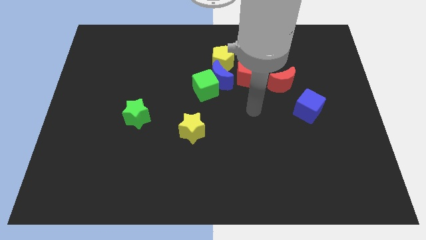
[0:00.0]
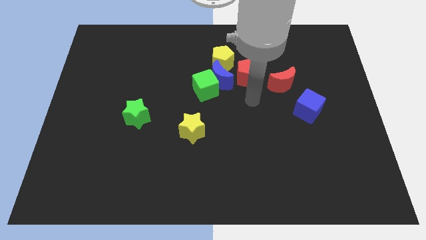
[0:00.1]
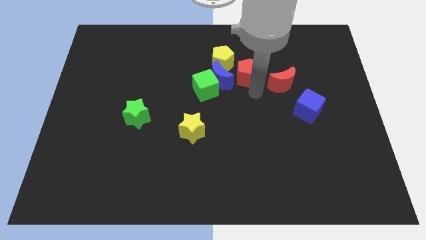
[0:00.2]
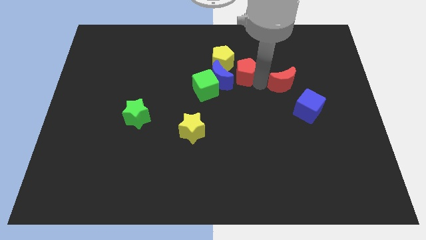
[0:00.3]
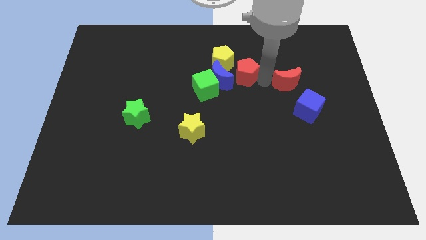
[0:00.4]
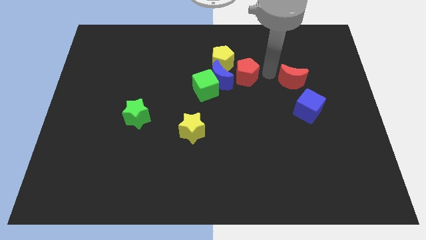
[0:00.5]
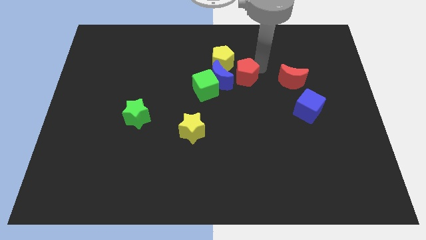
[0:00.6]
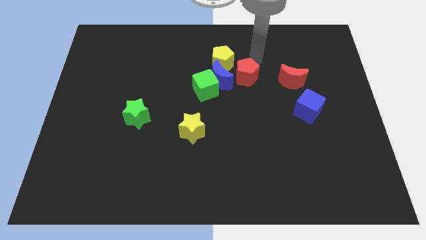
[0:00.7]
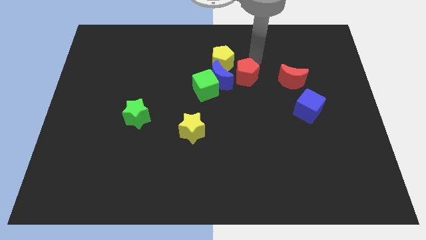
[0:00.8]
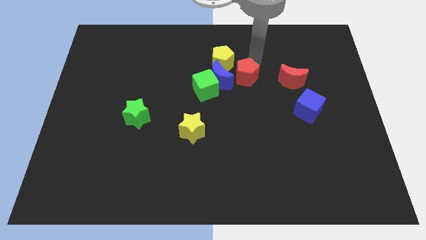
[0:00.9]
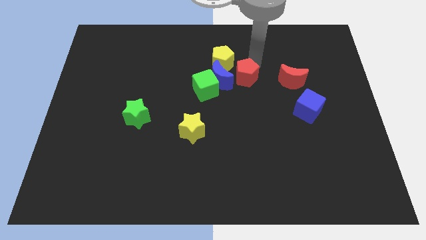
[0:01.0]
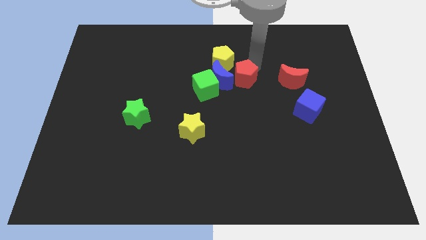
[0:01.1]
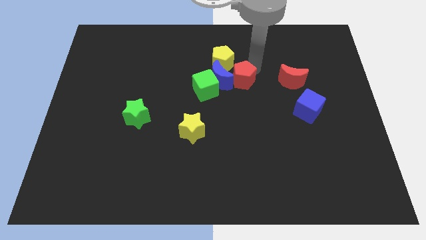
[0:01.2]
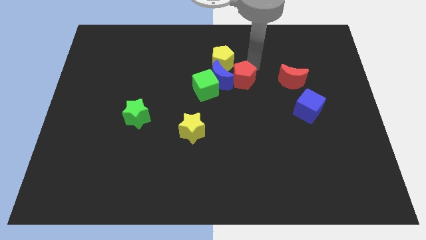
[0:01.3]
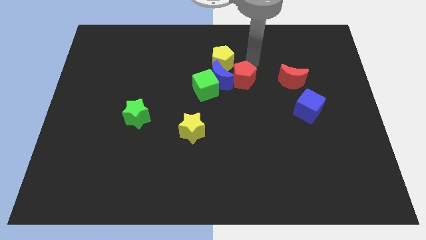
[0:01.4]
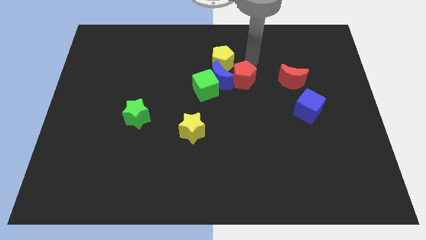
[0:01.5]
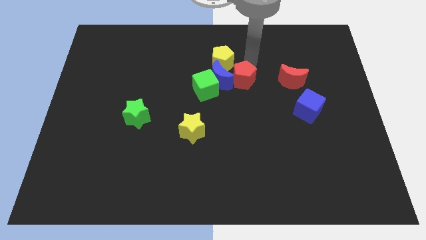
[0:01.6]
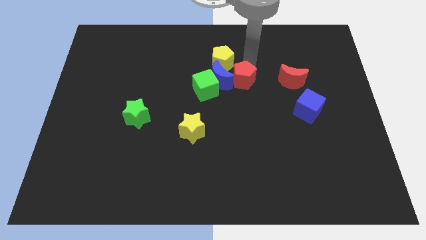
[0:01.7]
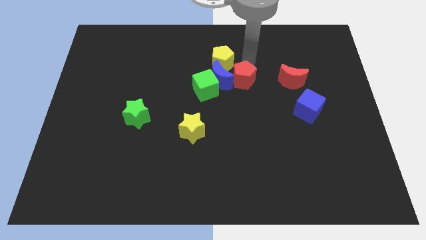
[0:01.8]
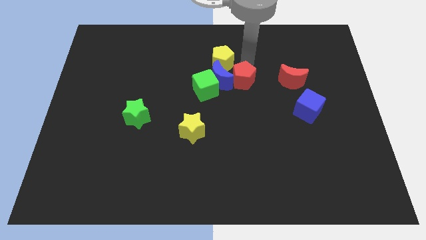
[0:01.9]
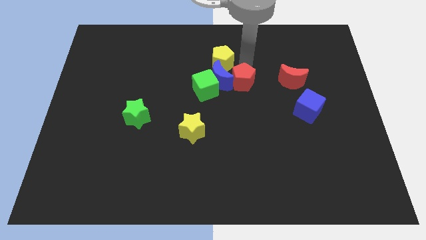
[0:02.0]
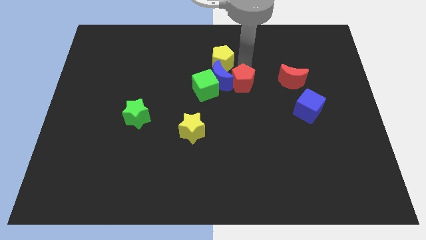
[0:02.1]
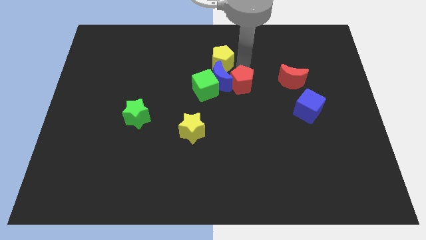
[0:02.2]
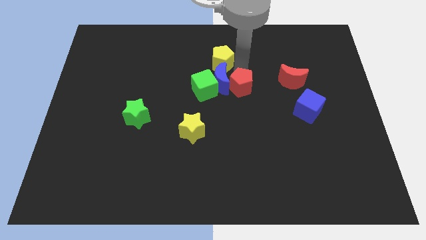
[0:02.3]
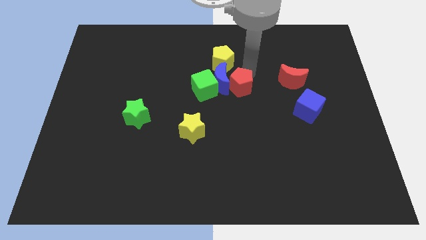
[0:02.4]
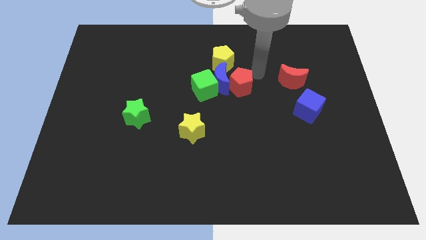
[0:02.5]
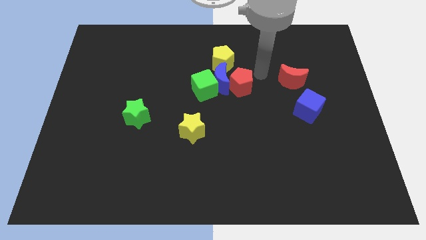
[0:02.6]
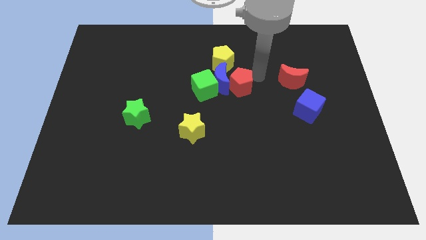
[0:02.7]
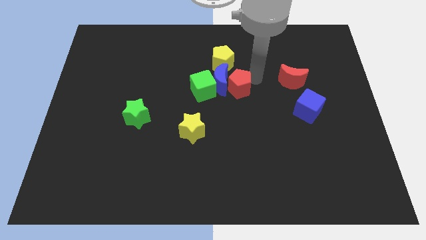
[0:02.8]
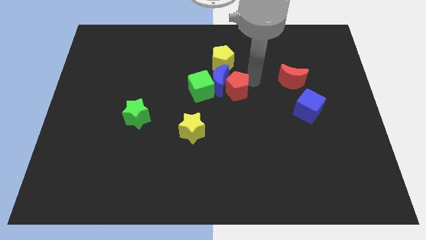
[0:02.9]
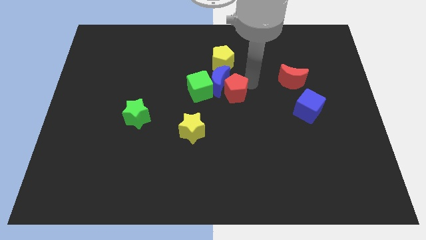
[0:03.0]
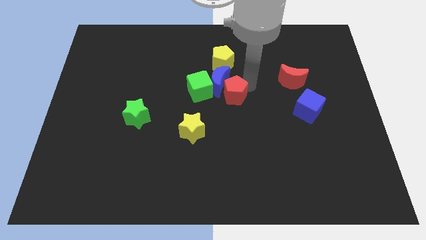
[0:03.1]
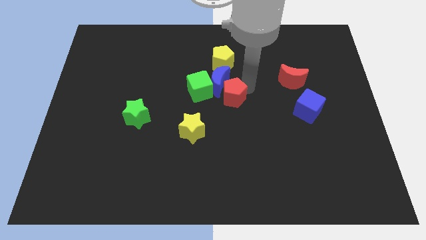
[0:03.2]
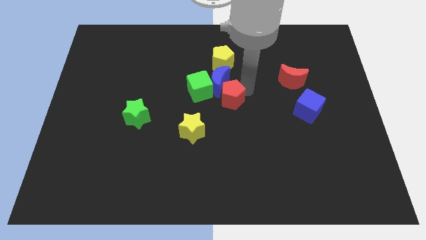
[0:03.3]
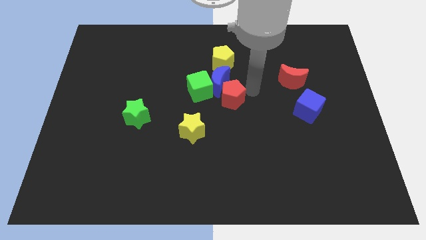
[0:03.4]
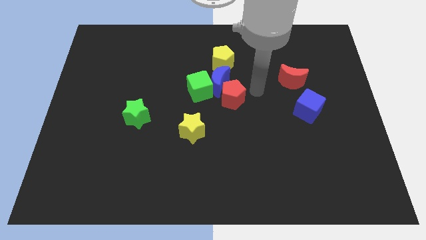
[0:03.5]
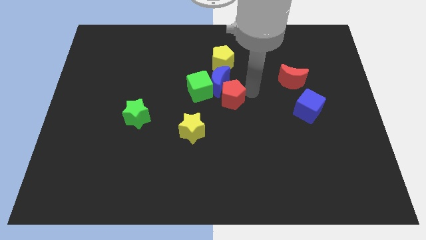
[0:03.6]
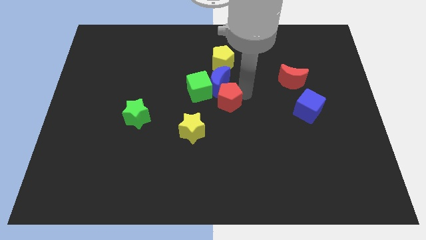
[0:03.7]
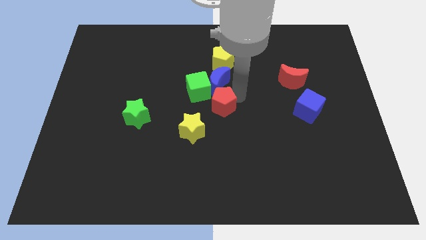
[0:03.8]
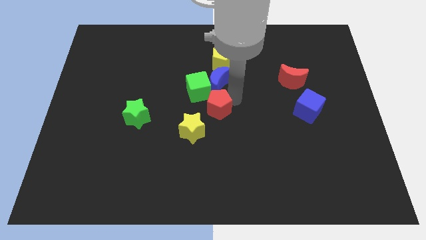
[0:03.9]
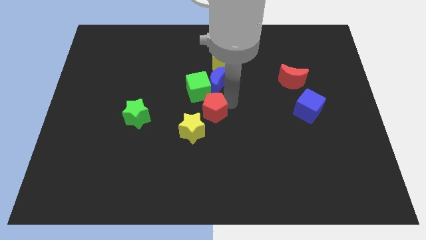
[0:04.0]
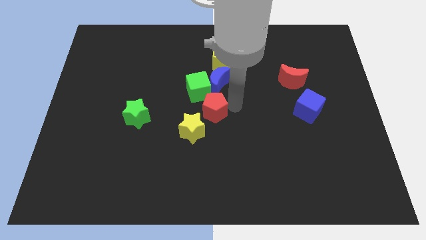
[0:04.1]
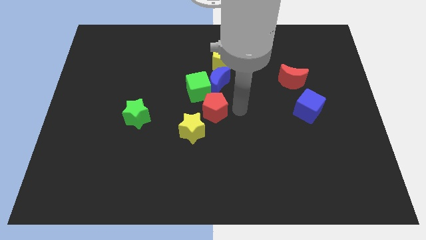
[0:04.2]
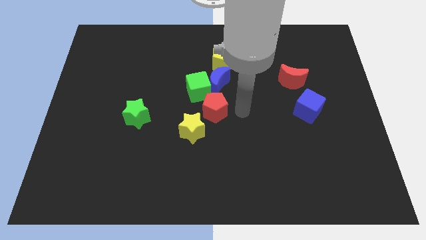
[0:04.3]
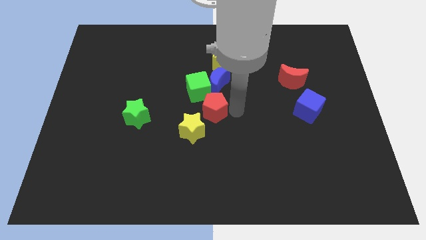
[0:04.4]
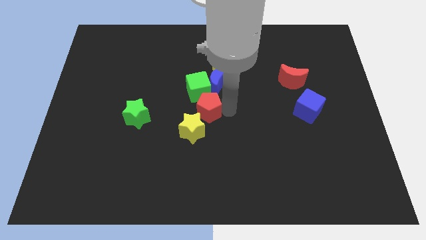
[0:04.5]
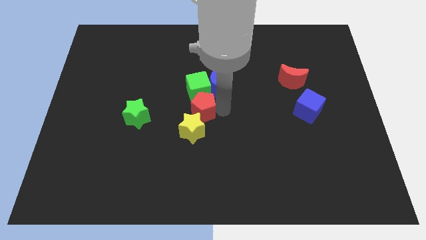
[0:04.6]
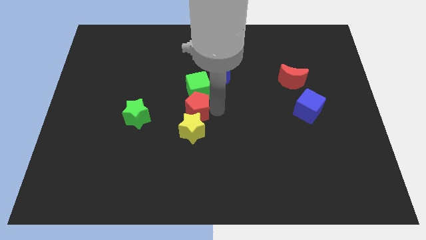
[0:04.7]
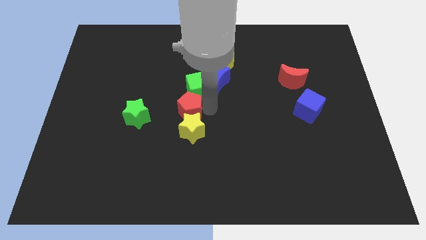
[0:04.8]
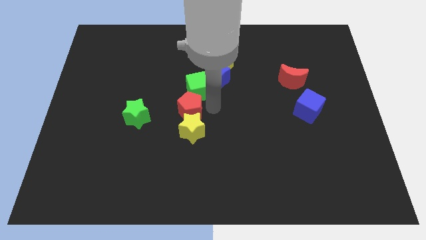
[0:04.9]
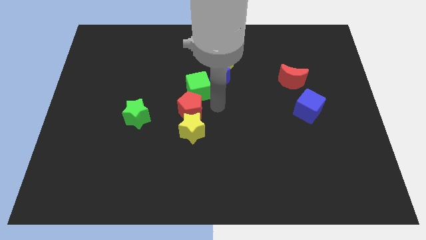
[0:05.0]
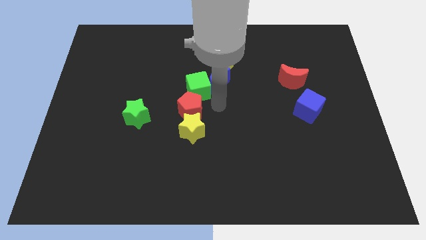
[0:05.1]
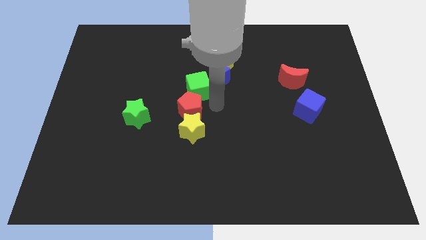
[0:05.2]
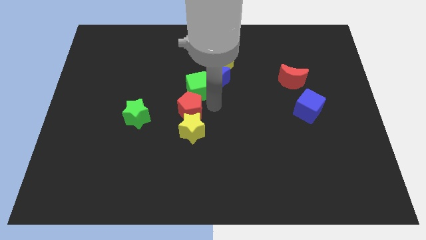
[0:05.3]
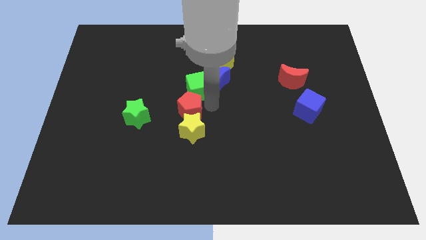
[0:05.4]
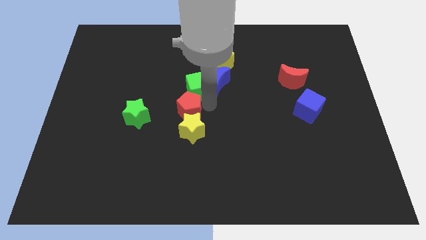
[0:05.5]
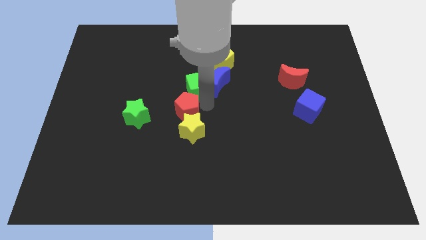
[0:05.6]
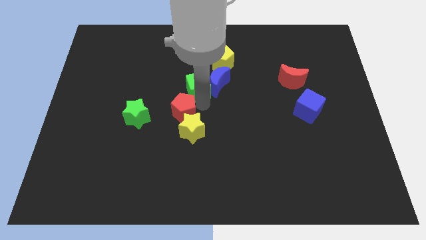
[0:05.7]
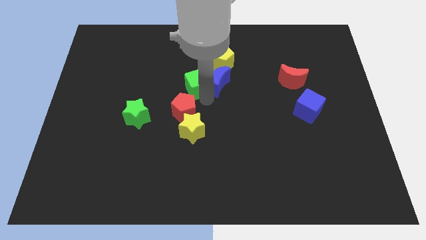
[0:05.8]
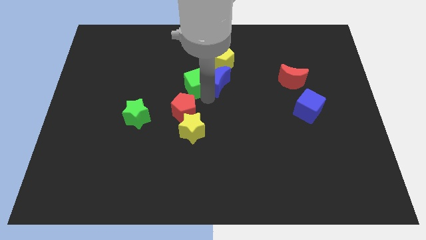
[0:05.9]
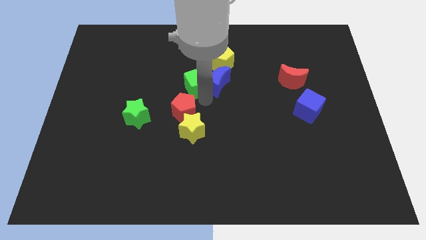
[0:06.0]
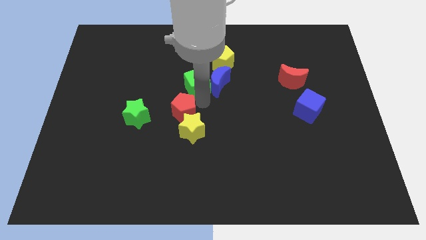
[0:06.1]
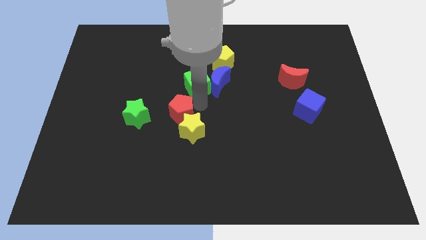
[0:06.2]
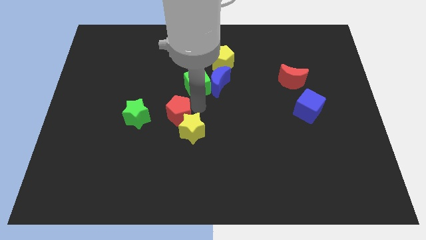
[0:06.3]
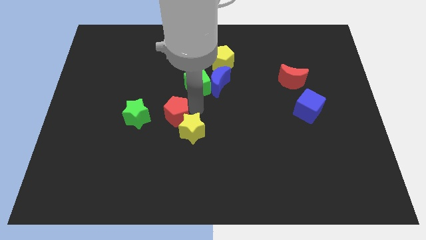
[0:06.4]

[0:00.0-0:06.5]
move the red pentagon downwards and left

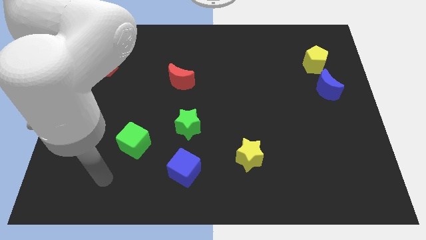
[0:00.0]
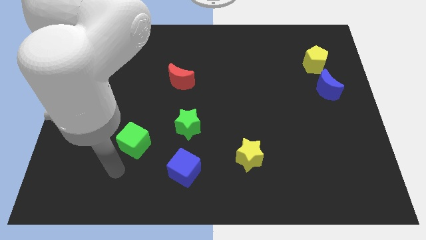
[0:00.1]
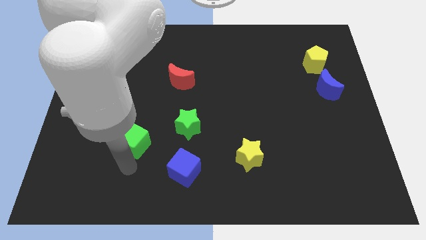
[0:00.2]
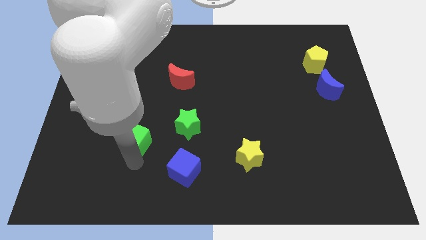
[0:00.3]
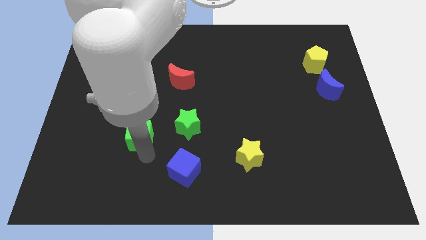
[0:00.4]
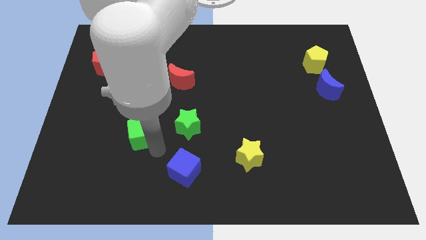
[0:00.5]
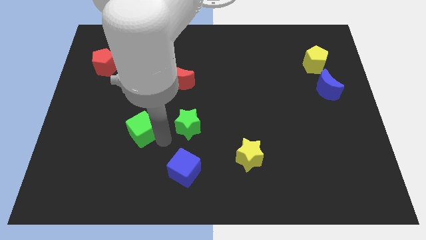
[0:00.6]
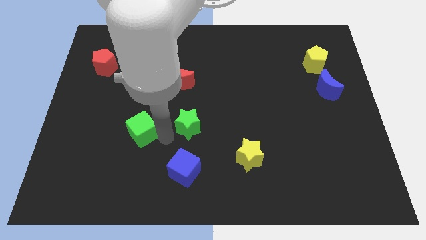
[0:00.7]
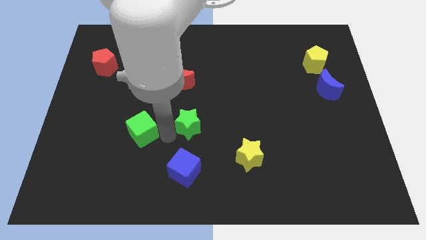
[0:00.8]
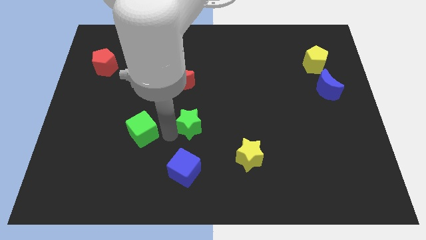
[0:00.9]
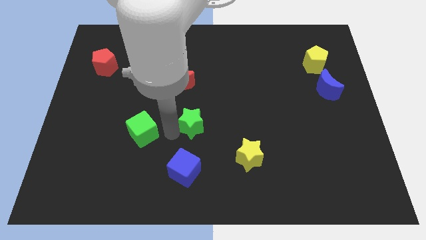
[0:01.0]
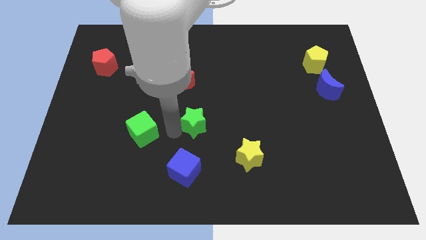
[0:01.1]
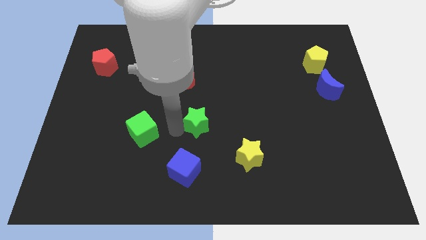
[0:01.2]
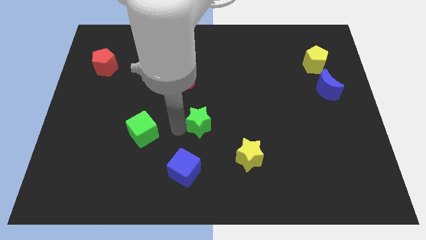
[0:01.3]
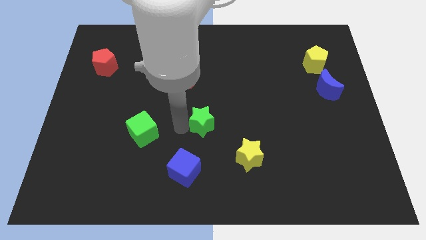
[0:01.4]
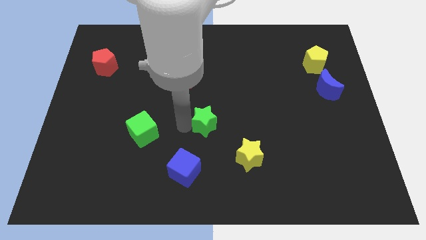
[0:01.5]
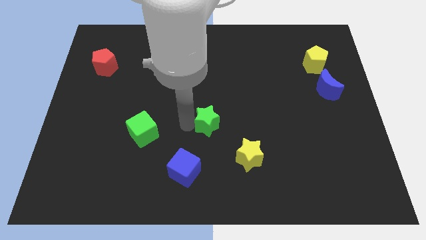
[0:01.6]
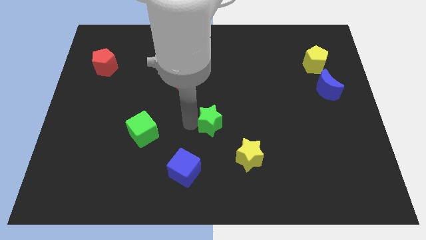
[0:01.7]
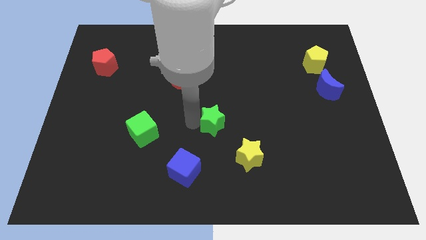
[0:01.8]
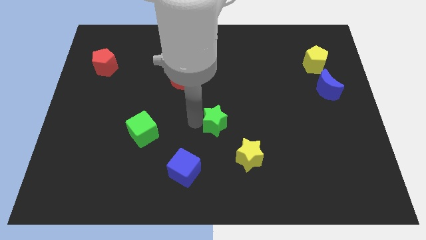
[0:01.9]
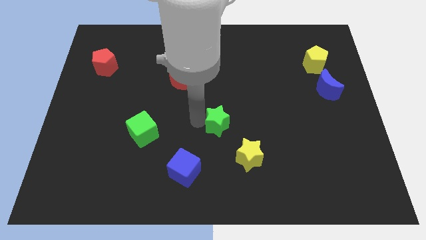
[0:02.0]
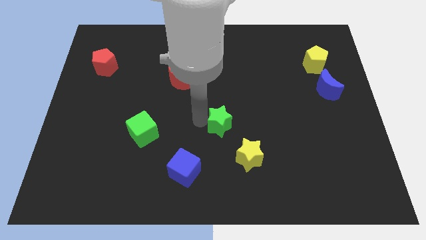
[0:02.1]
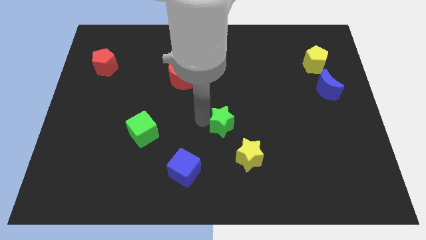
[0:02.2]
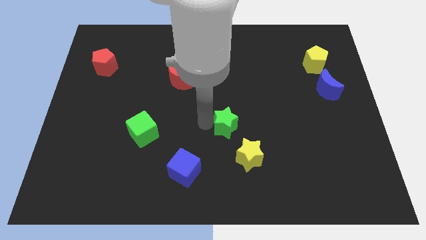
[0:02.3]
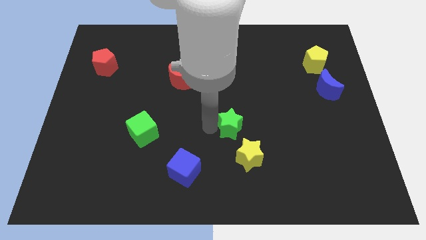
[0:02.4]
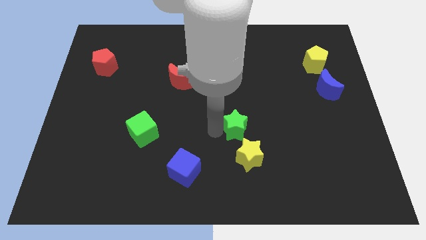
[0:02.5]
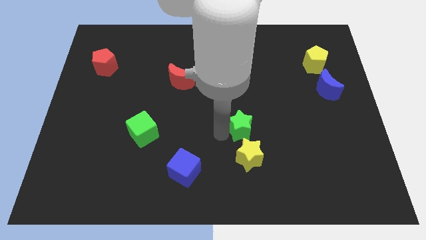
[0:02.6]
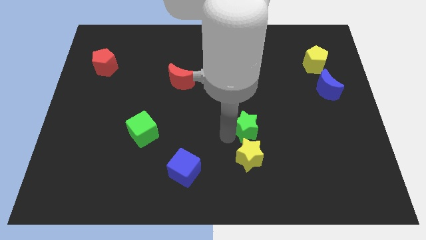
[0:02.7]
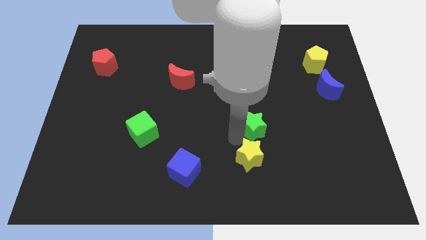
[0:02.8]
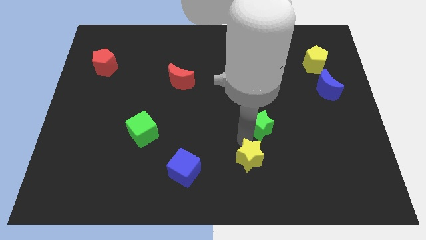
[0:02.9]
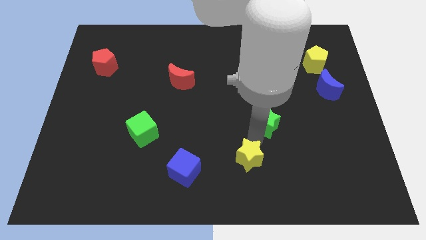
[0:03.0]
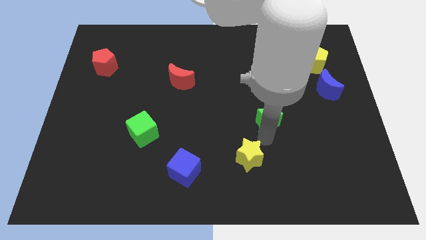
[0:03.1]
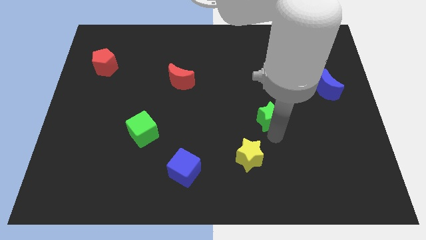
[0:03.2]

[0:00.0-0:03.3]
push the green star diagonally upwards and to the right a little
